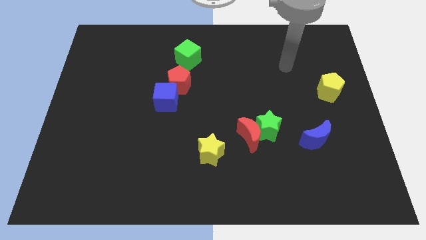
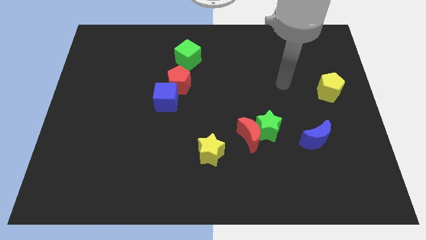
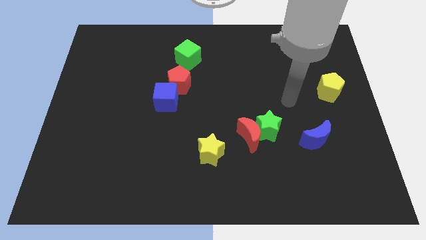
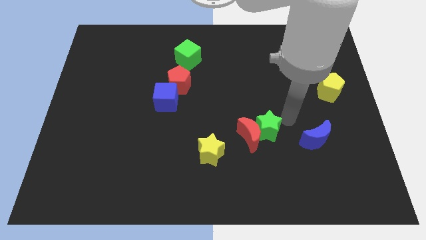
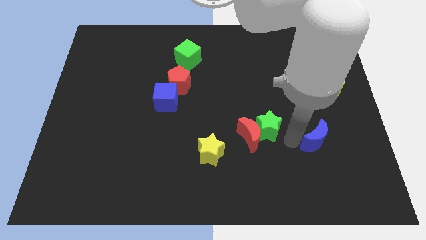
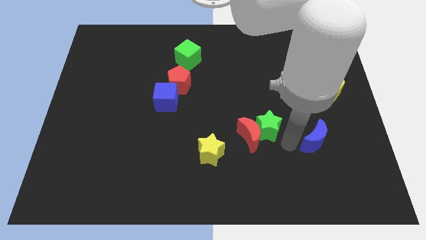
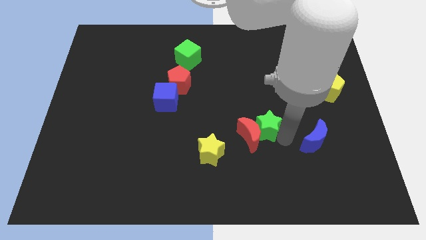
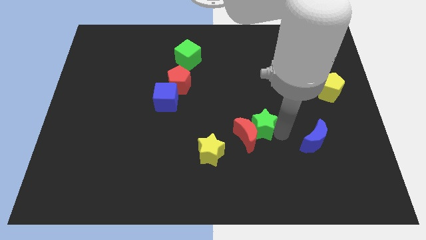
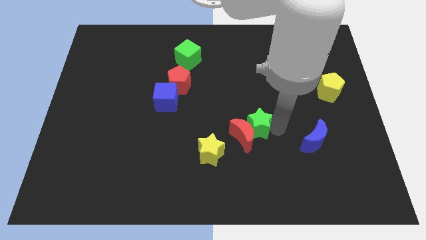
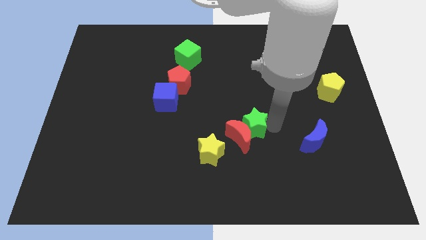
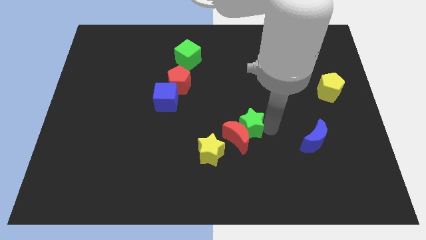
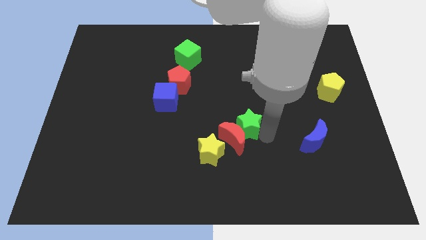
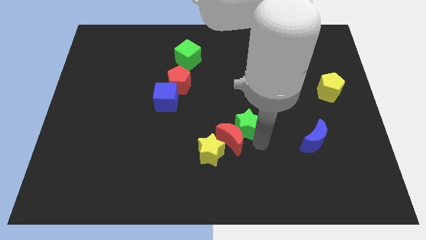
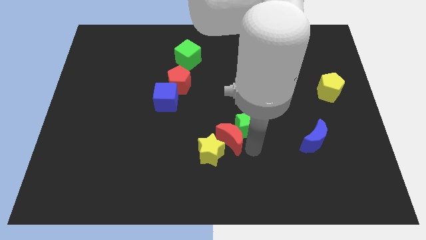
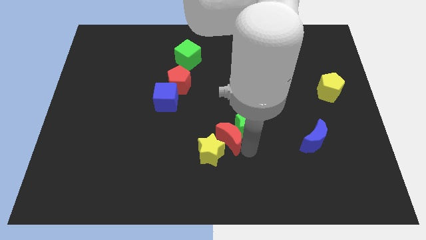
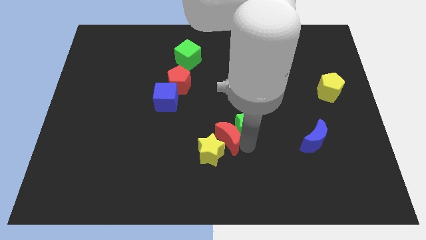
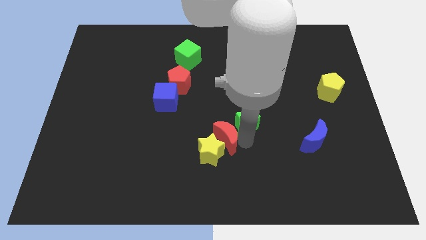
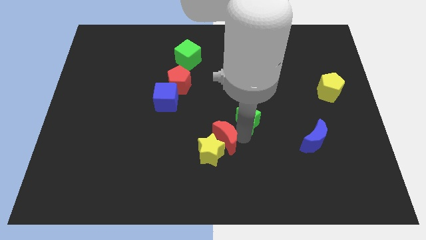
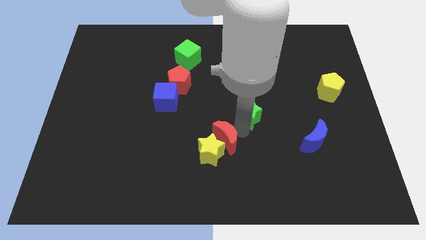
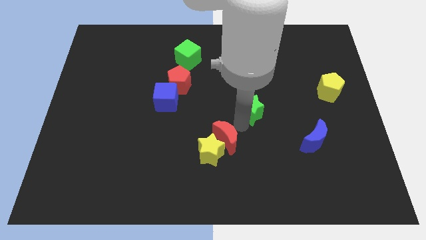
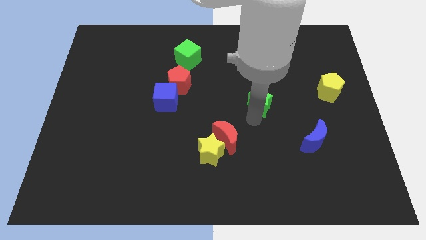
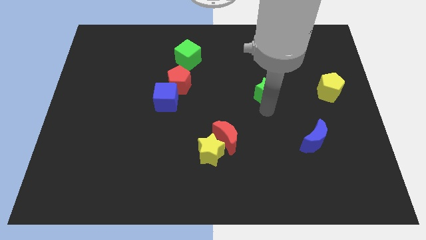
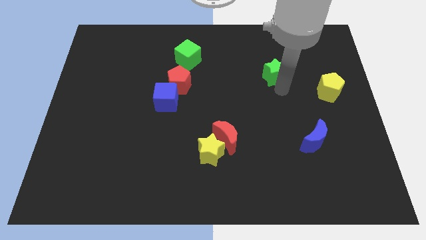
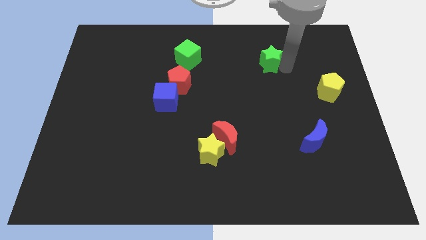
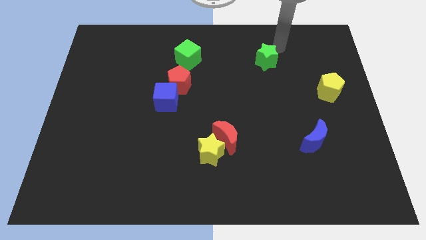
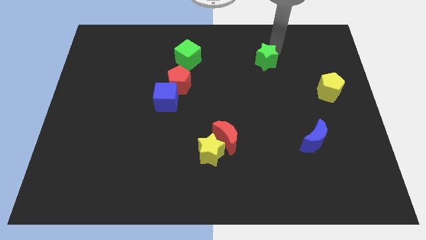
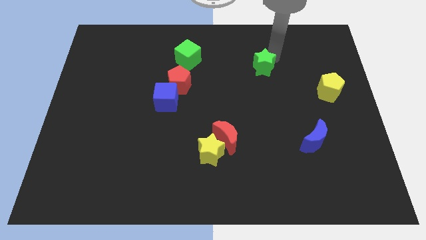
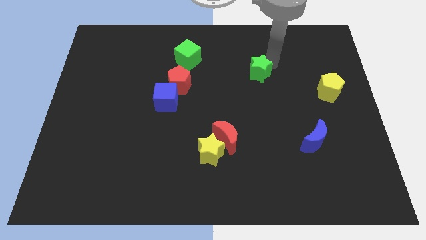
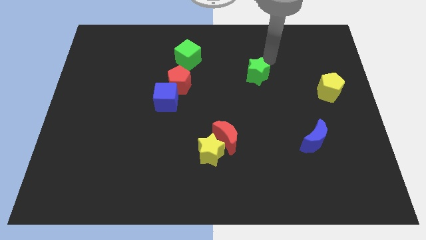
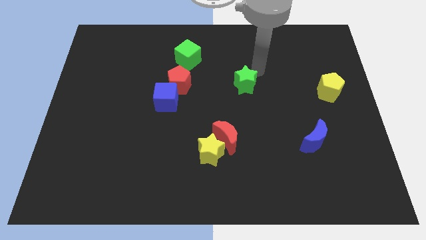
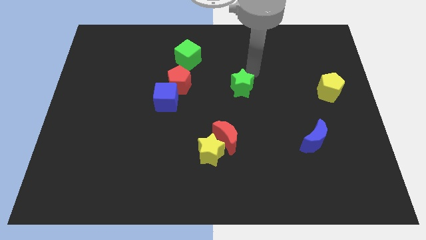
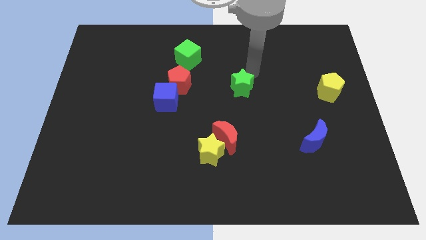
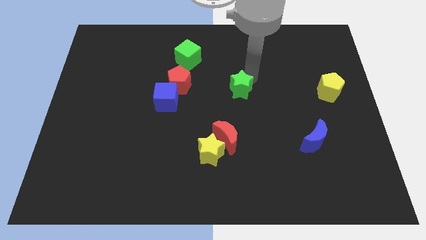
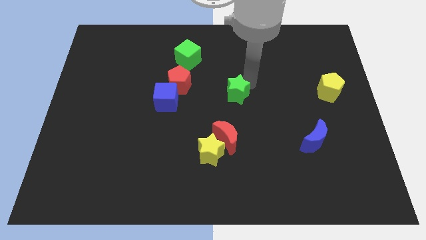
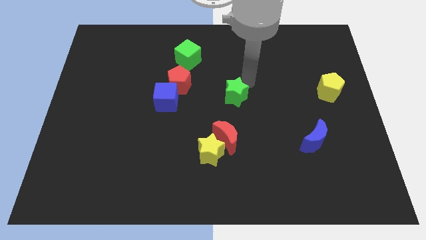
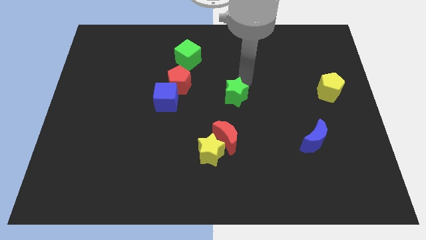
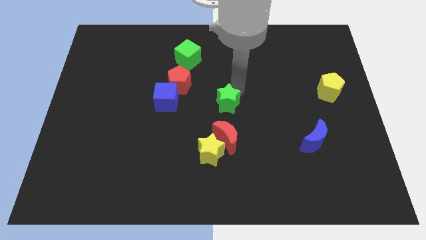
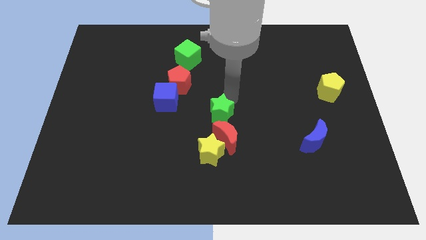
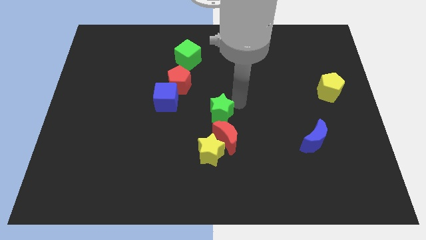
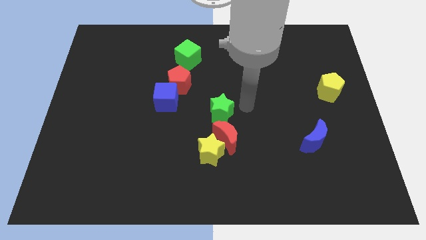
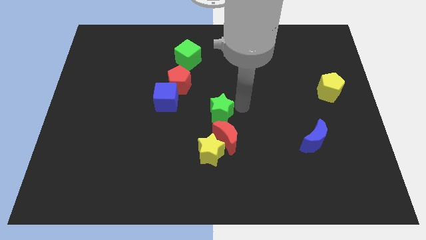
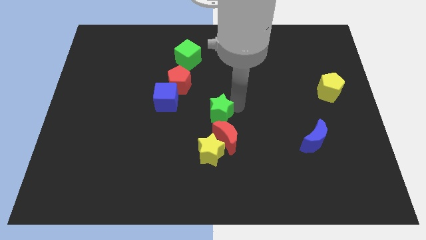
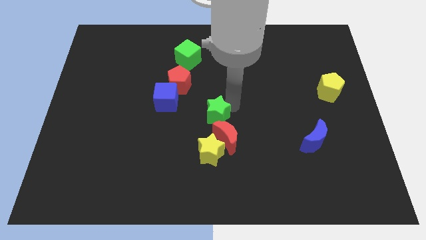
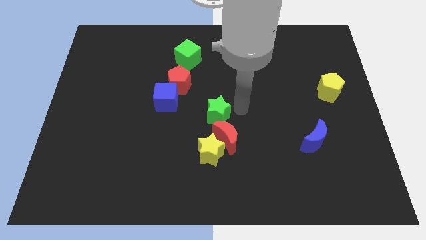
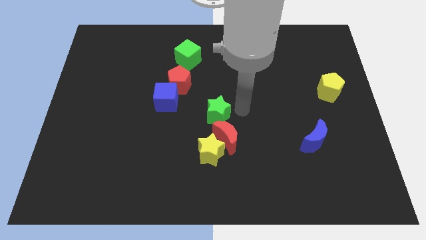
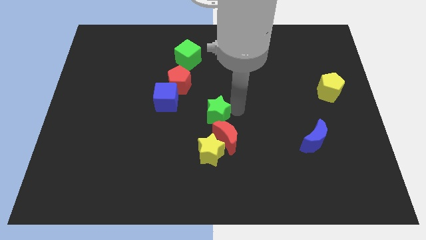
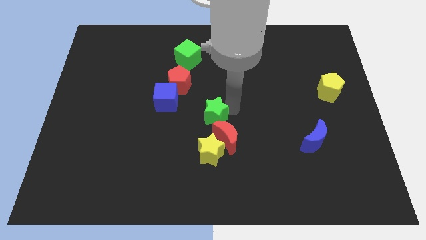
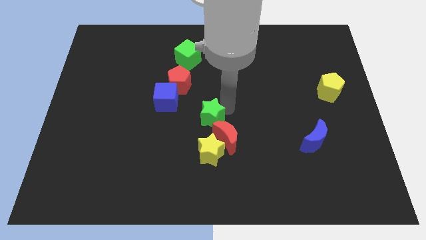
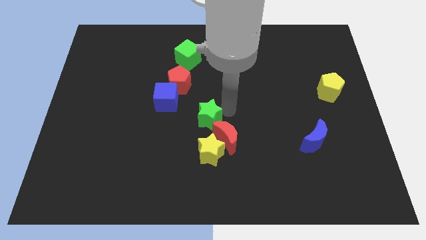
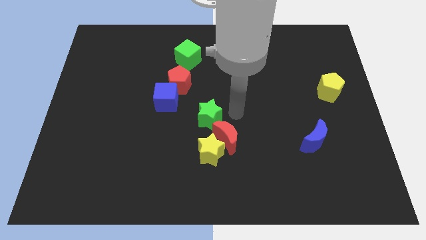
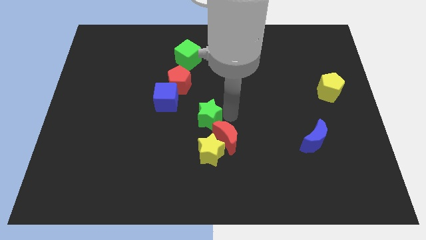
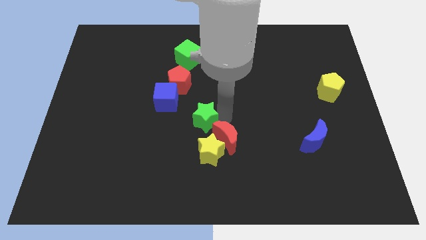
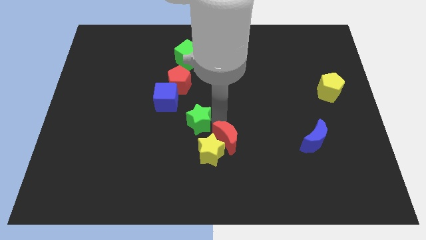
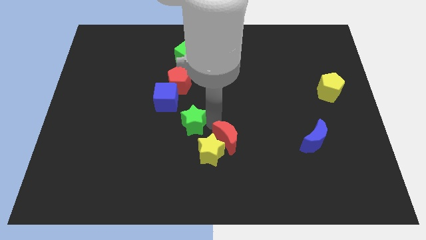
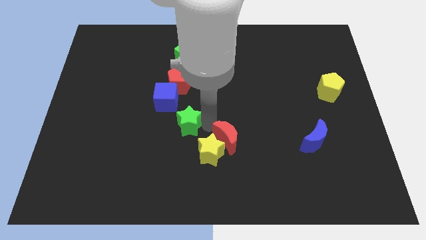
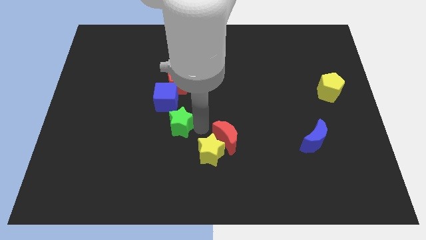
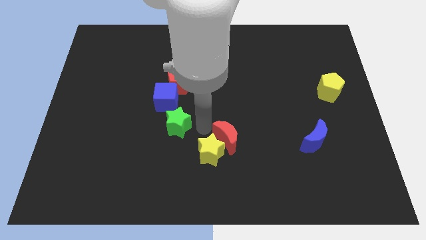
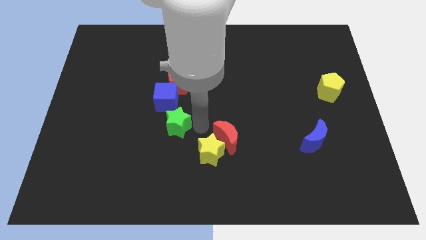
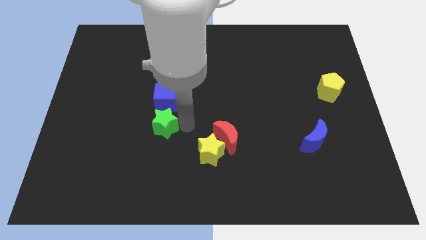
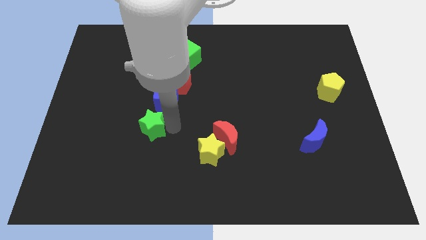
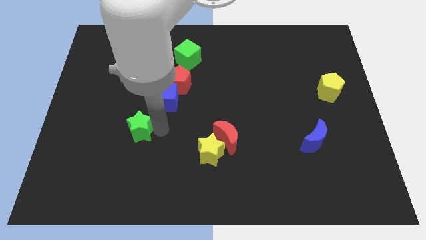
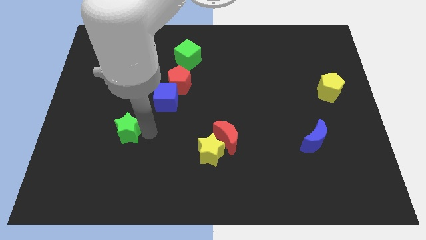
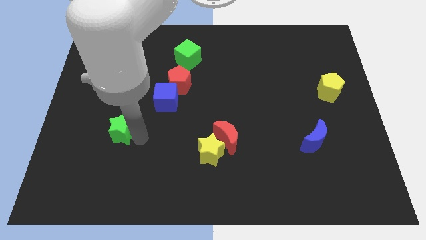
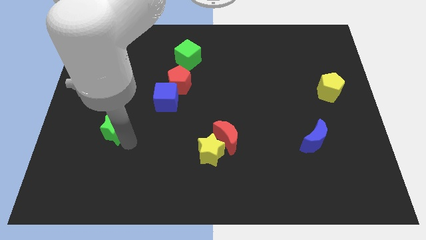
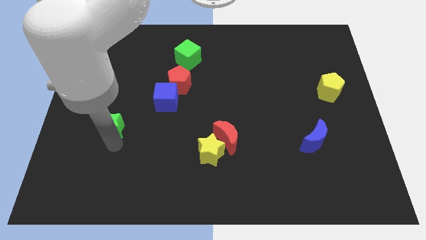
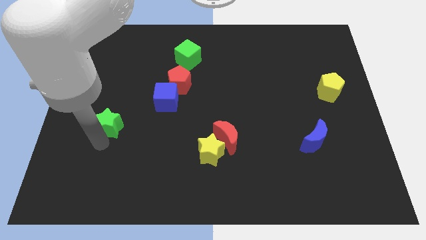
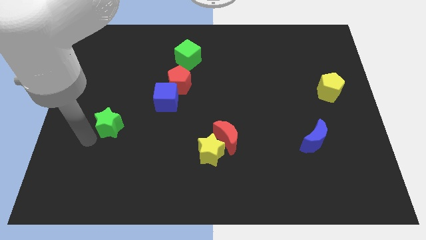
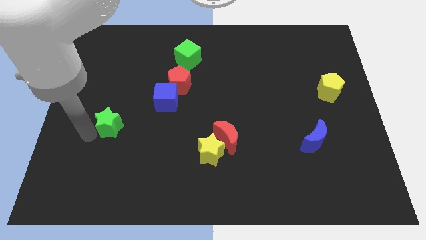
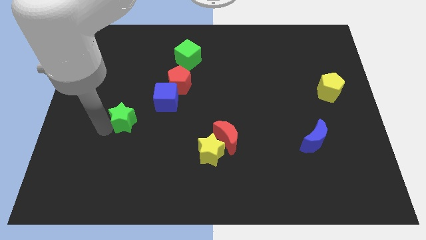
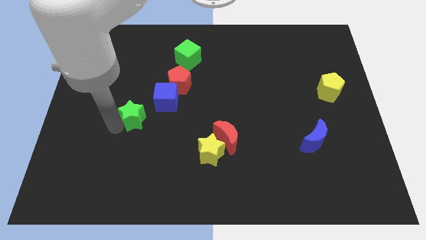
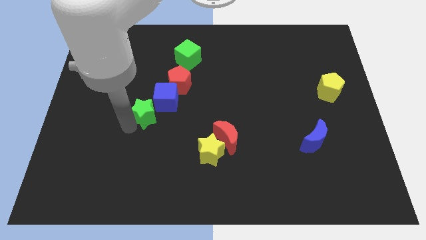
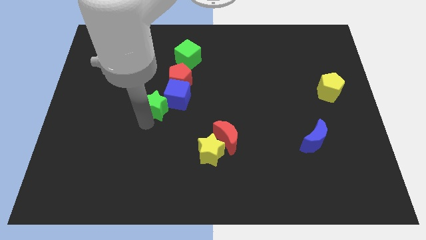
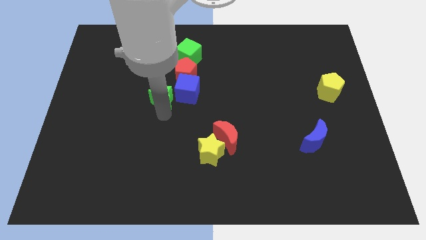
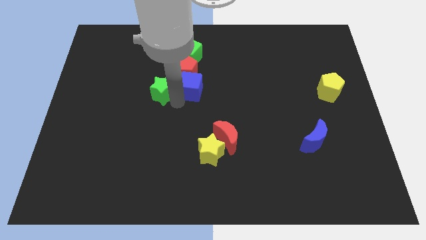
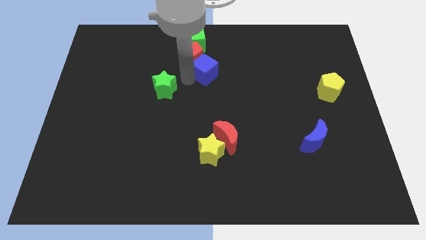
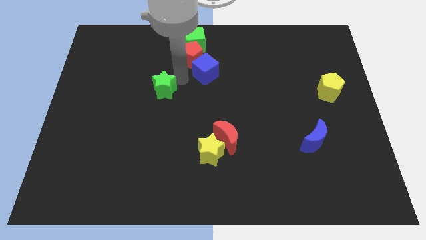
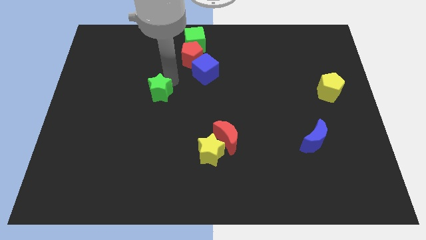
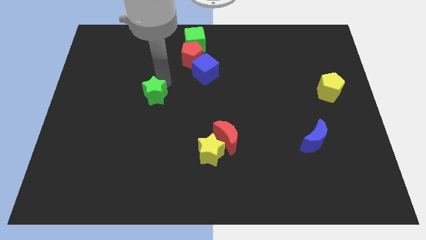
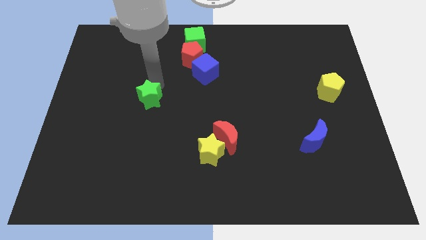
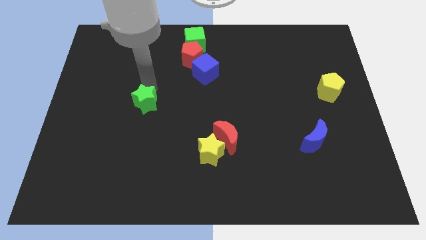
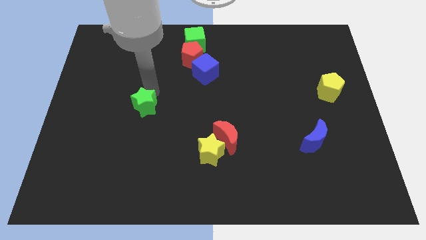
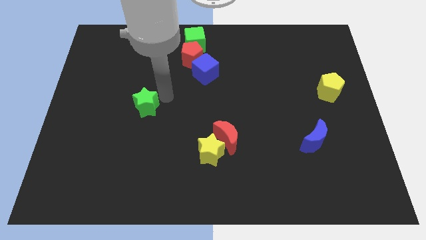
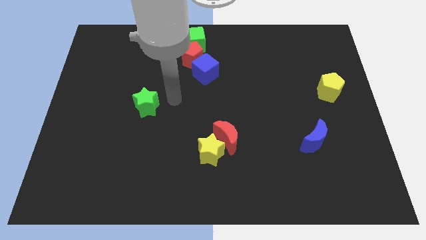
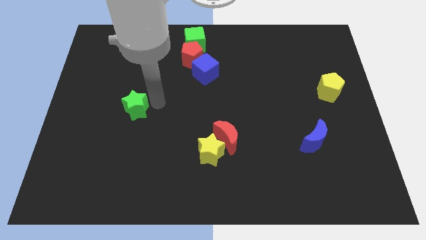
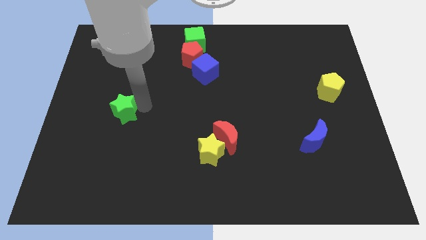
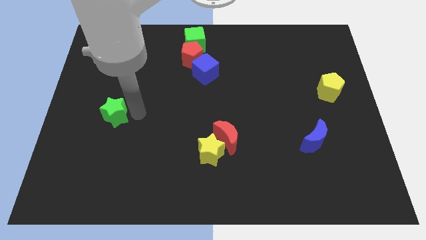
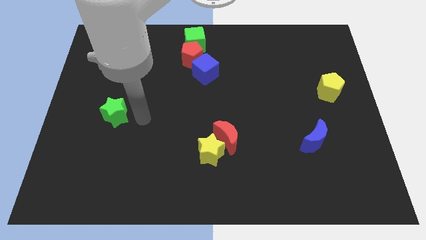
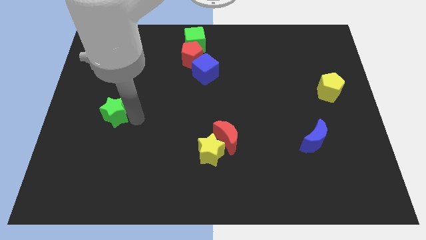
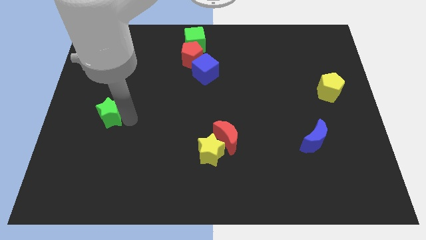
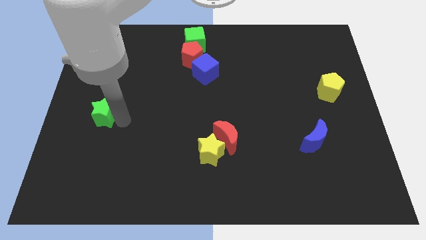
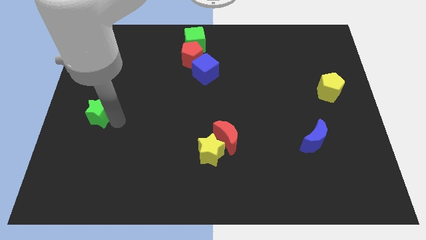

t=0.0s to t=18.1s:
push the green star to the left side of the board
